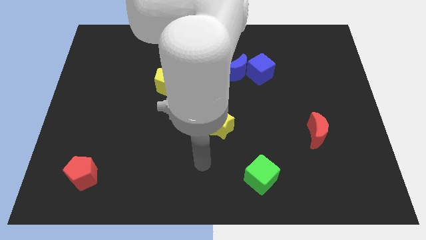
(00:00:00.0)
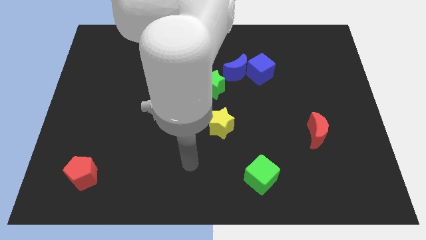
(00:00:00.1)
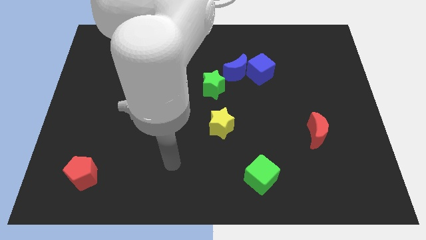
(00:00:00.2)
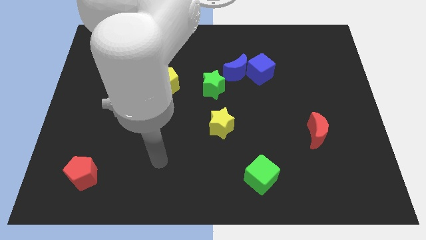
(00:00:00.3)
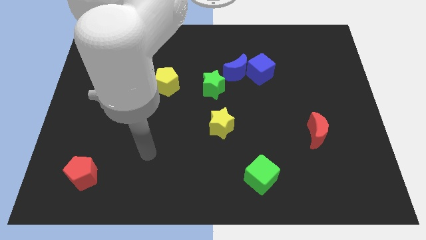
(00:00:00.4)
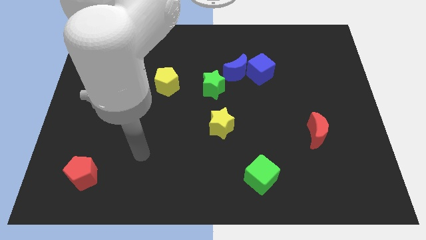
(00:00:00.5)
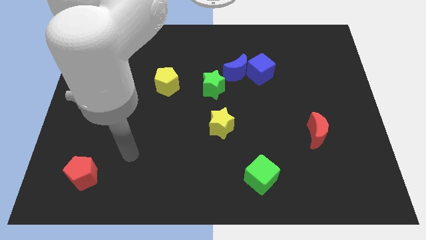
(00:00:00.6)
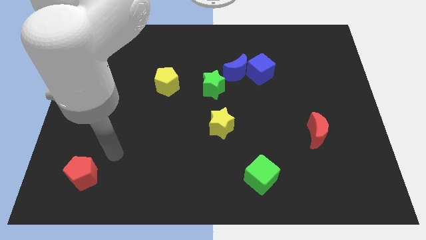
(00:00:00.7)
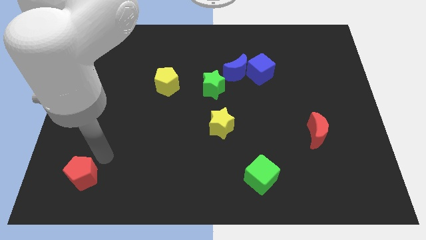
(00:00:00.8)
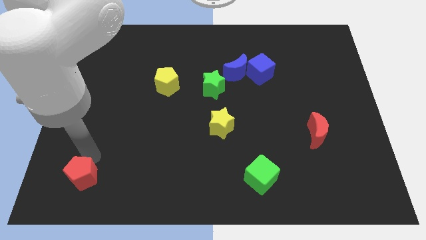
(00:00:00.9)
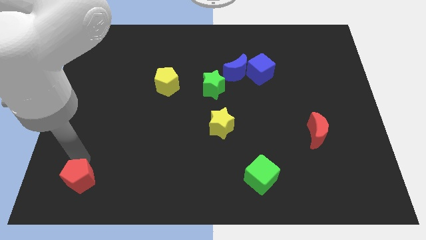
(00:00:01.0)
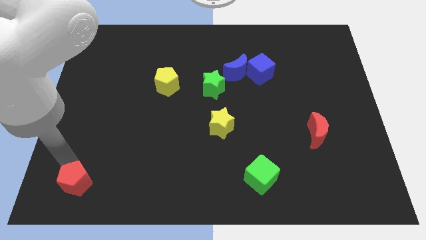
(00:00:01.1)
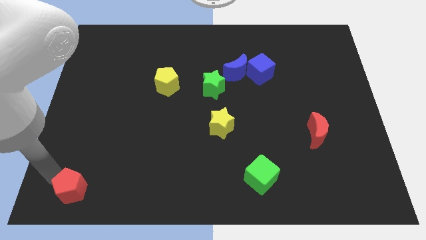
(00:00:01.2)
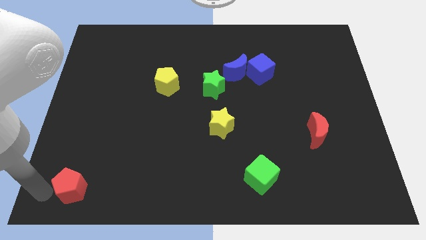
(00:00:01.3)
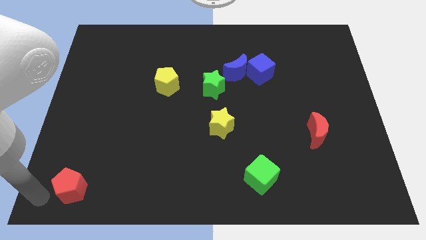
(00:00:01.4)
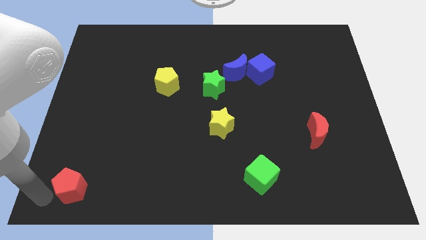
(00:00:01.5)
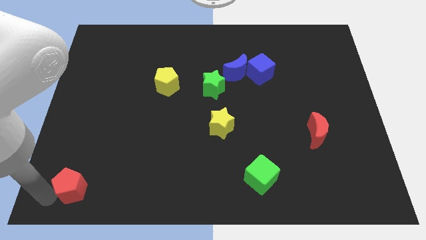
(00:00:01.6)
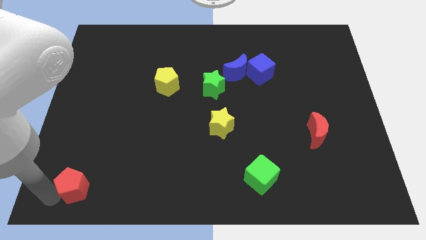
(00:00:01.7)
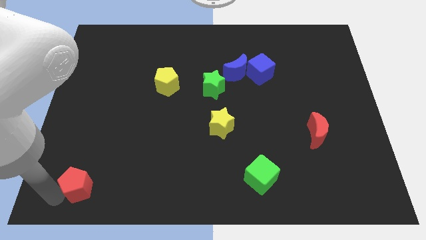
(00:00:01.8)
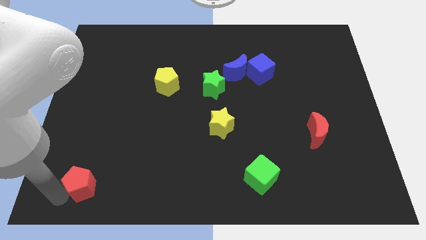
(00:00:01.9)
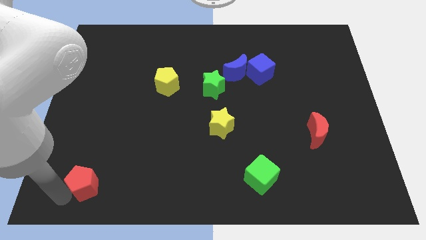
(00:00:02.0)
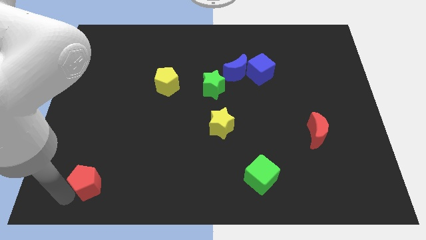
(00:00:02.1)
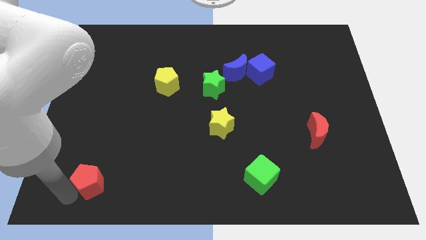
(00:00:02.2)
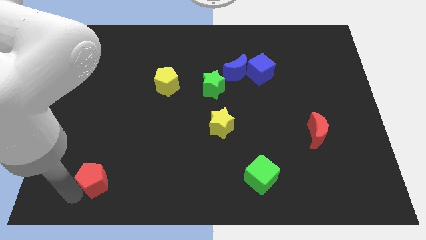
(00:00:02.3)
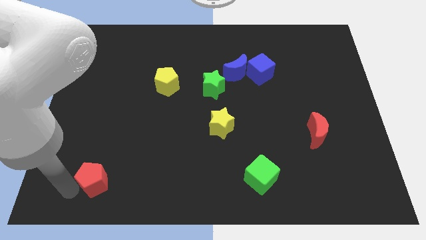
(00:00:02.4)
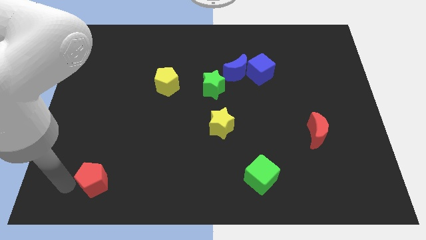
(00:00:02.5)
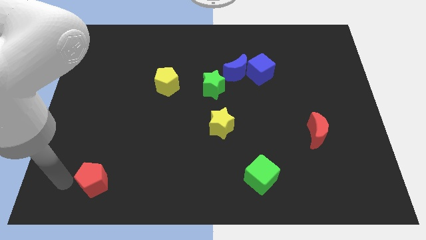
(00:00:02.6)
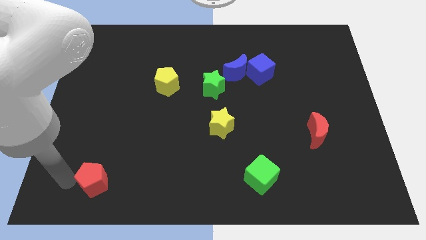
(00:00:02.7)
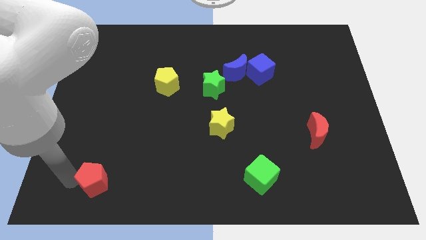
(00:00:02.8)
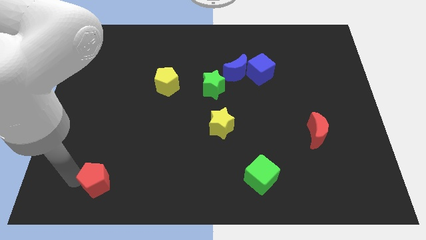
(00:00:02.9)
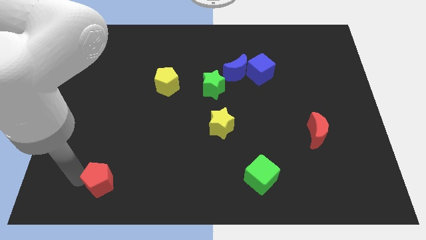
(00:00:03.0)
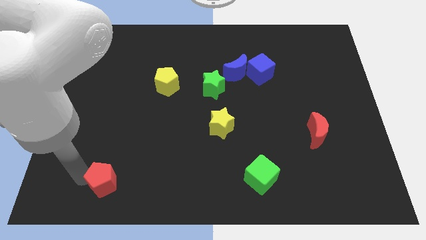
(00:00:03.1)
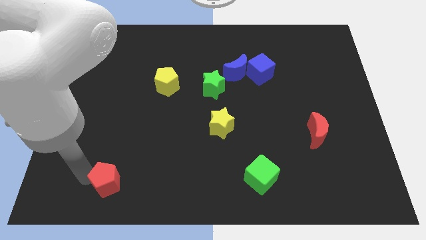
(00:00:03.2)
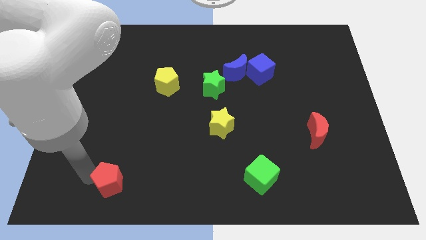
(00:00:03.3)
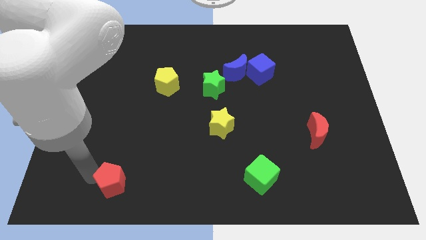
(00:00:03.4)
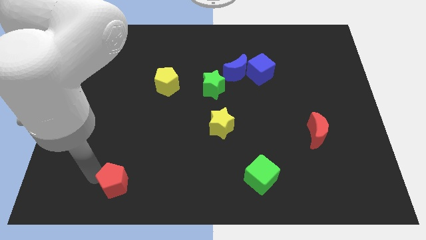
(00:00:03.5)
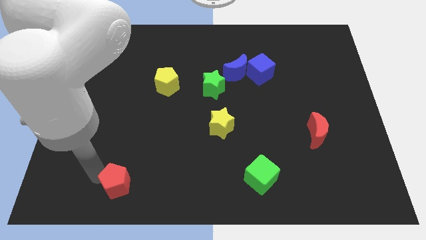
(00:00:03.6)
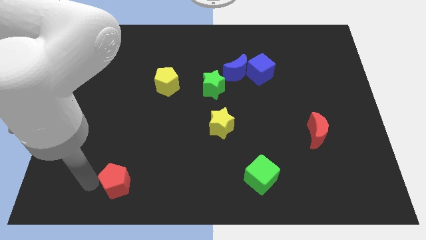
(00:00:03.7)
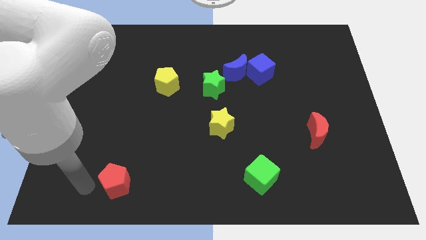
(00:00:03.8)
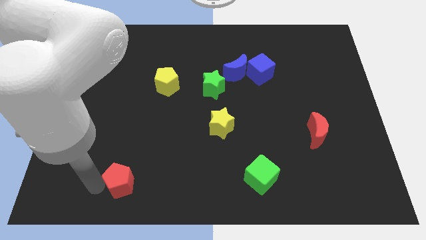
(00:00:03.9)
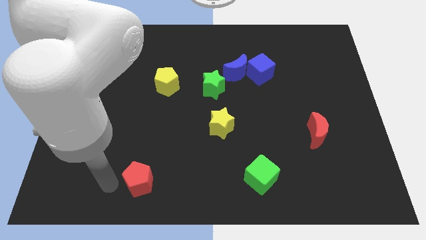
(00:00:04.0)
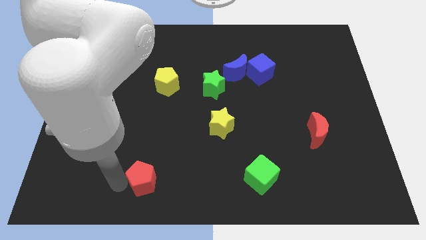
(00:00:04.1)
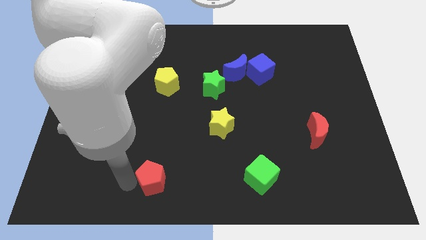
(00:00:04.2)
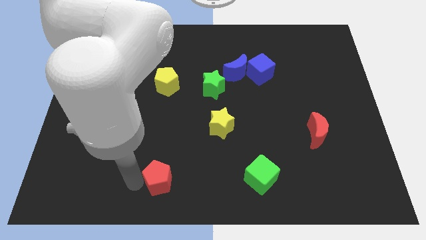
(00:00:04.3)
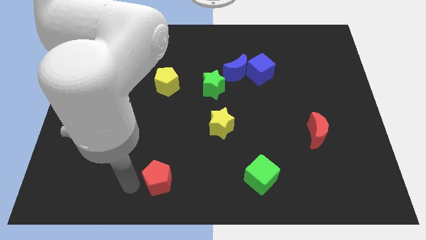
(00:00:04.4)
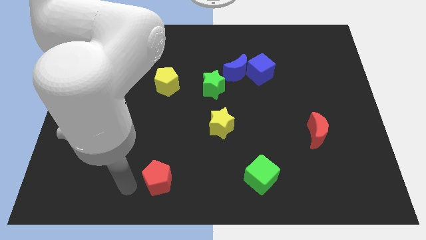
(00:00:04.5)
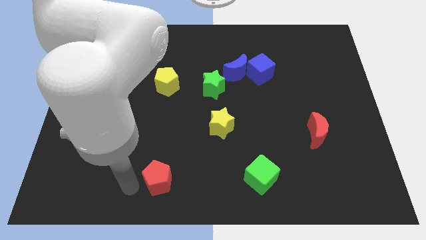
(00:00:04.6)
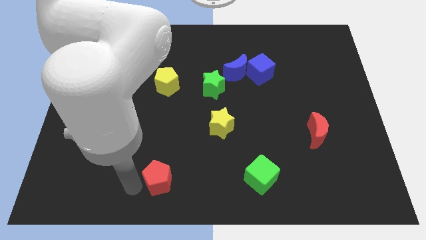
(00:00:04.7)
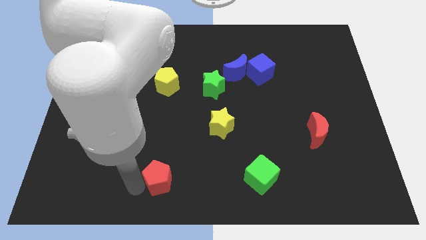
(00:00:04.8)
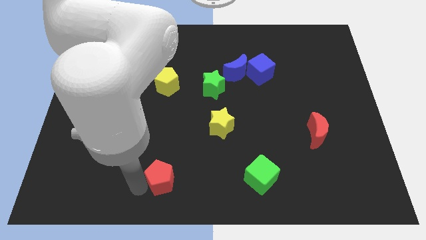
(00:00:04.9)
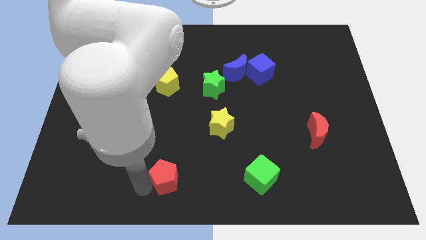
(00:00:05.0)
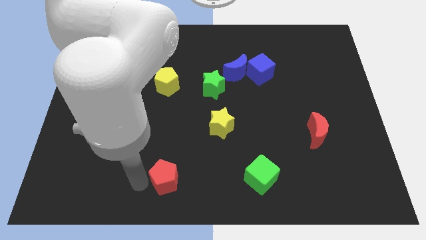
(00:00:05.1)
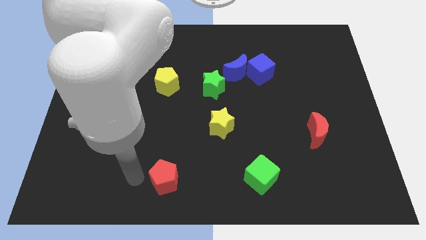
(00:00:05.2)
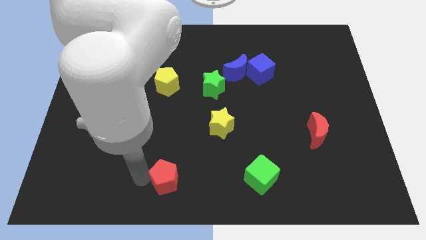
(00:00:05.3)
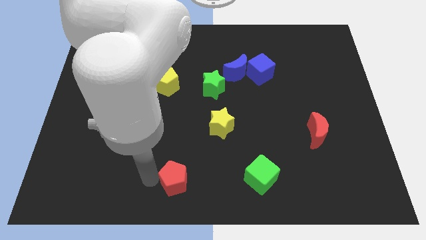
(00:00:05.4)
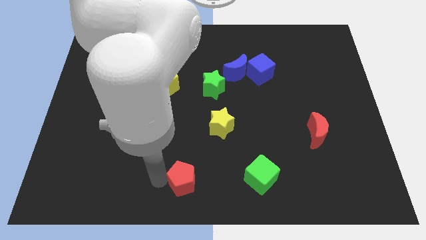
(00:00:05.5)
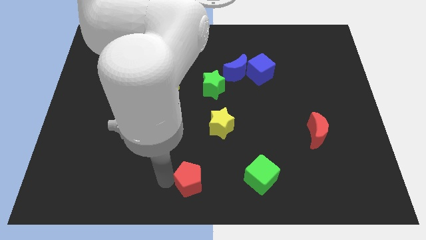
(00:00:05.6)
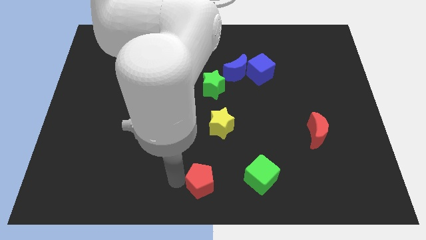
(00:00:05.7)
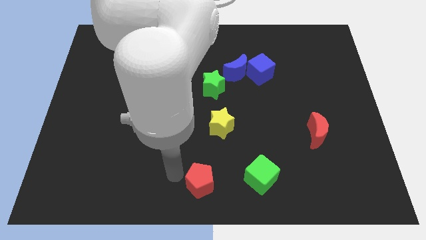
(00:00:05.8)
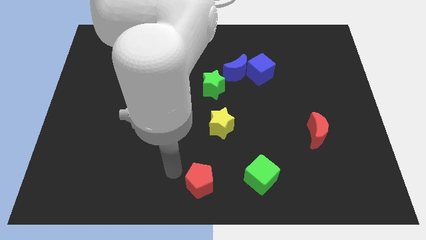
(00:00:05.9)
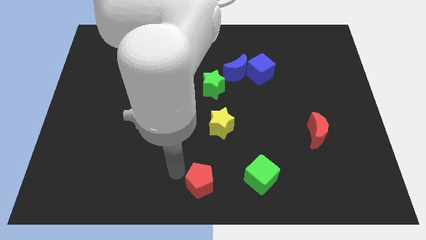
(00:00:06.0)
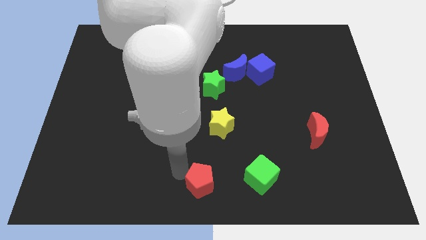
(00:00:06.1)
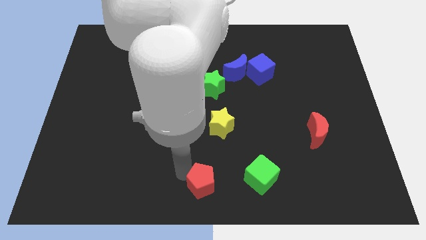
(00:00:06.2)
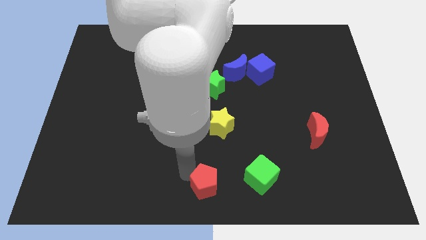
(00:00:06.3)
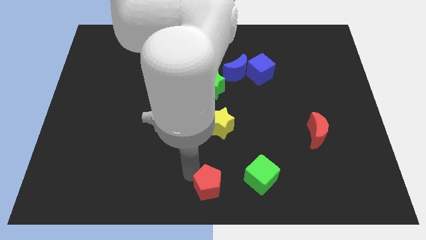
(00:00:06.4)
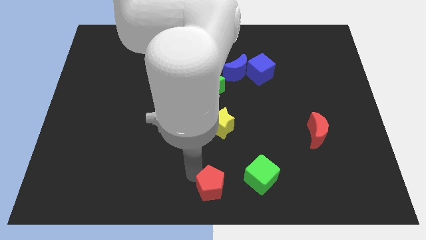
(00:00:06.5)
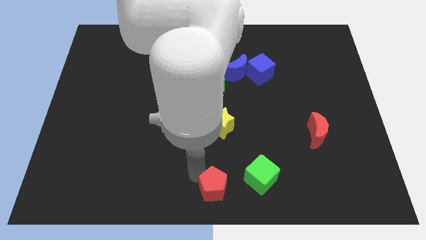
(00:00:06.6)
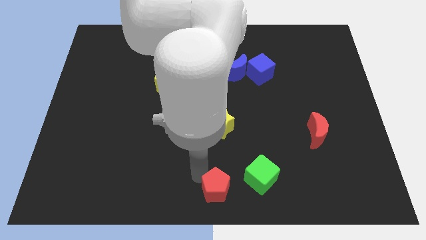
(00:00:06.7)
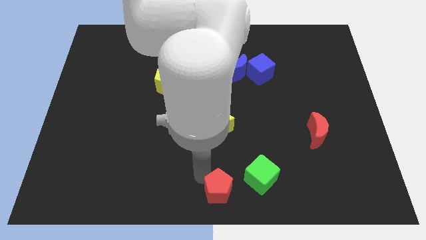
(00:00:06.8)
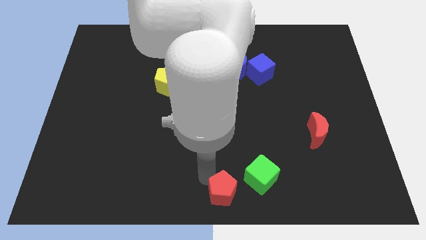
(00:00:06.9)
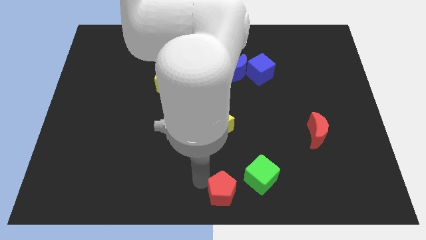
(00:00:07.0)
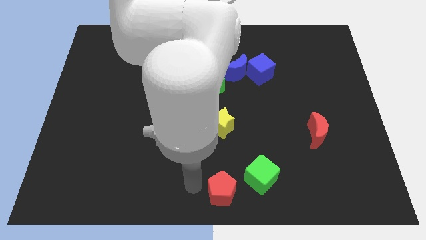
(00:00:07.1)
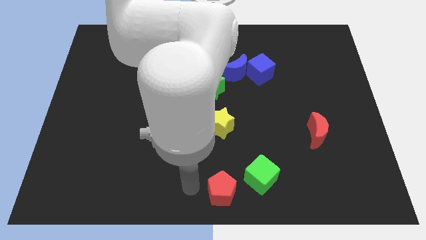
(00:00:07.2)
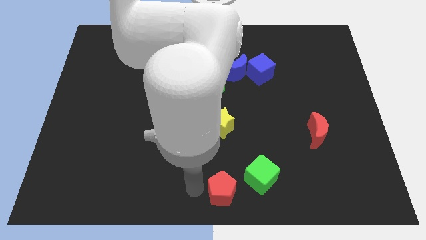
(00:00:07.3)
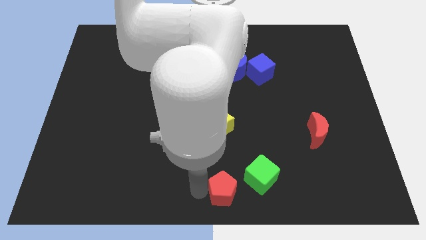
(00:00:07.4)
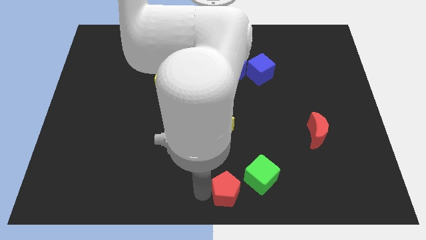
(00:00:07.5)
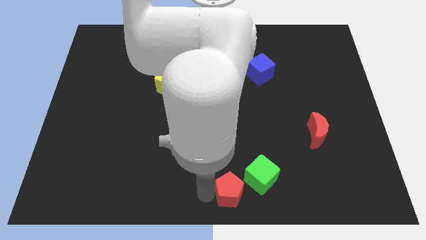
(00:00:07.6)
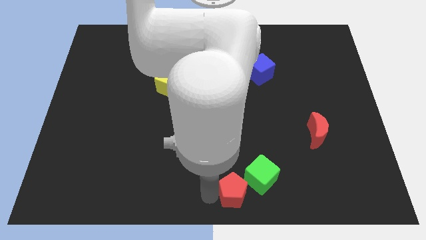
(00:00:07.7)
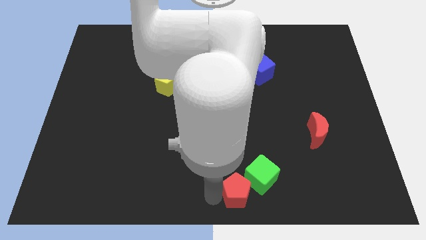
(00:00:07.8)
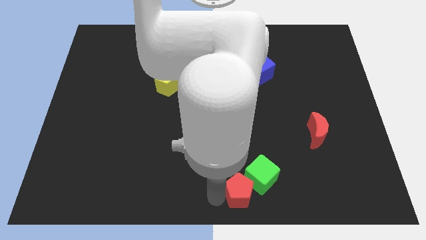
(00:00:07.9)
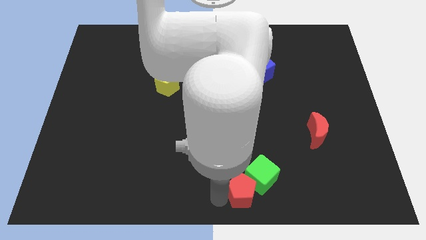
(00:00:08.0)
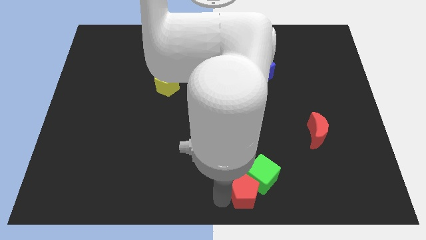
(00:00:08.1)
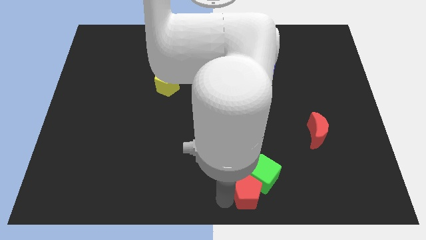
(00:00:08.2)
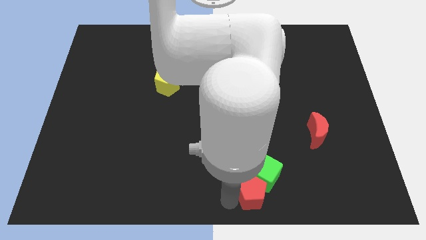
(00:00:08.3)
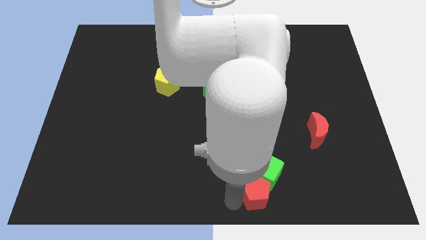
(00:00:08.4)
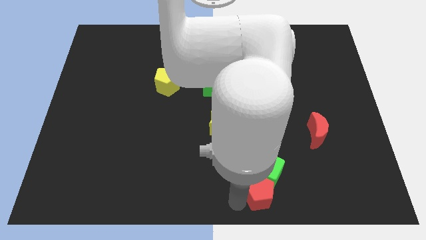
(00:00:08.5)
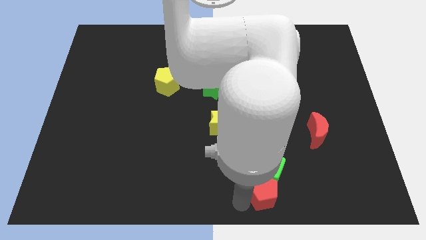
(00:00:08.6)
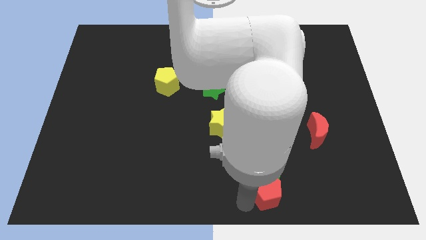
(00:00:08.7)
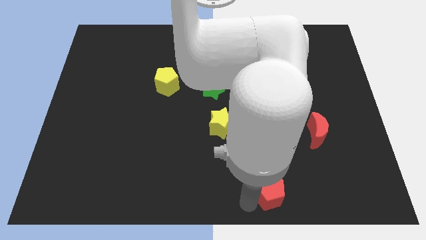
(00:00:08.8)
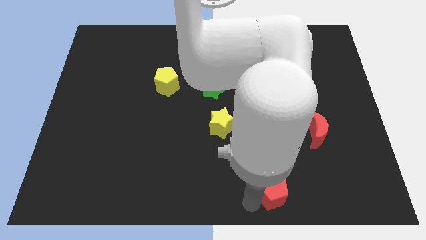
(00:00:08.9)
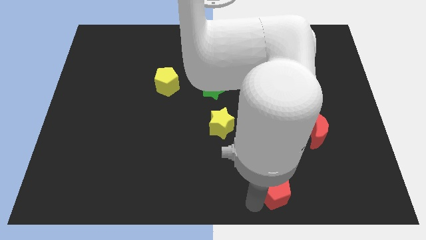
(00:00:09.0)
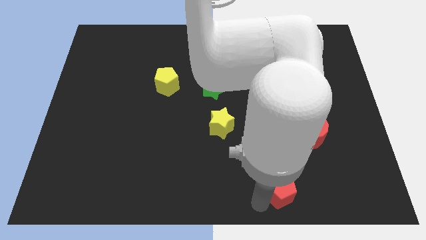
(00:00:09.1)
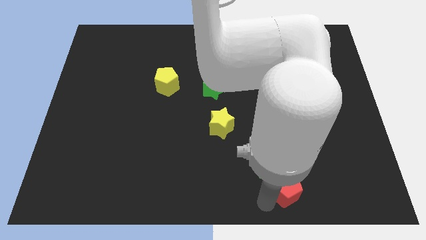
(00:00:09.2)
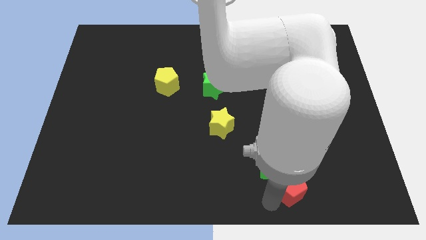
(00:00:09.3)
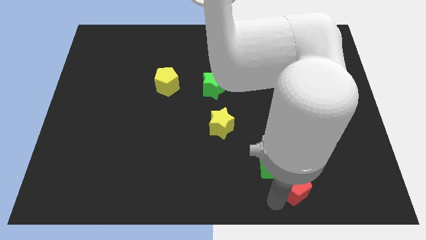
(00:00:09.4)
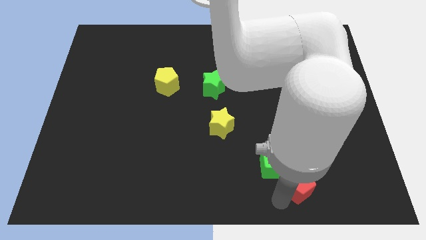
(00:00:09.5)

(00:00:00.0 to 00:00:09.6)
put the red pentagon to the right side of the green cube
